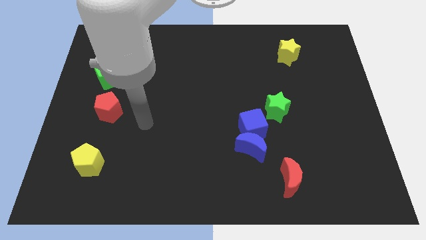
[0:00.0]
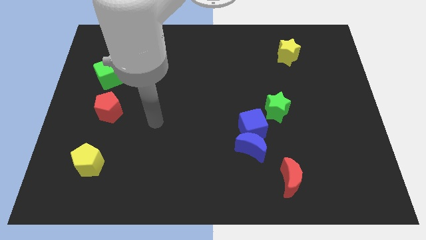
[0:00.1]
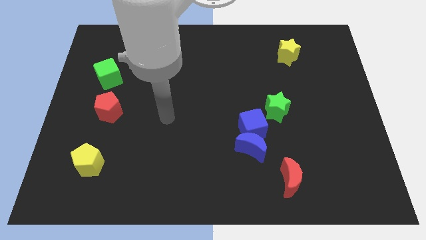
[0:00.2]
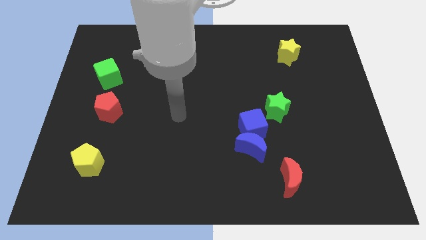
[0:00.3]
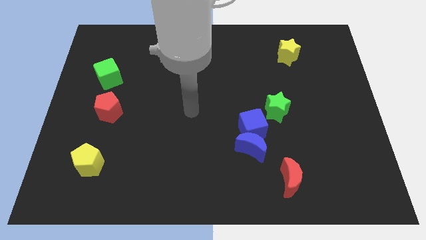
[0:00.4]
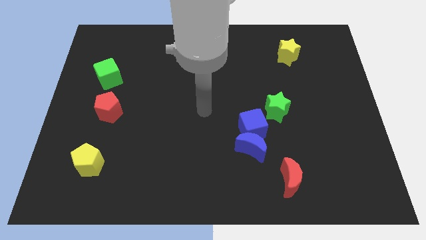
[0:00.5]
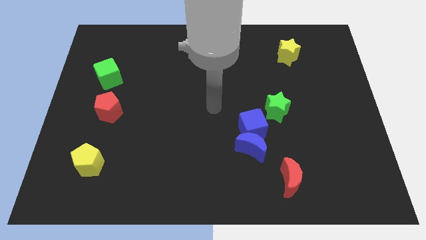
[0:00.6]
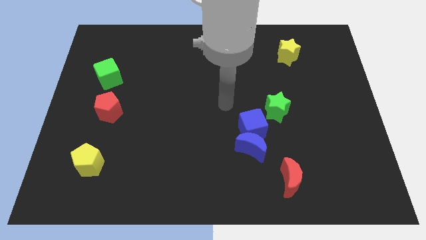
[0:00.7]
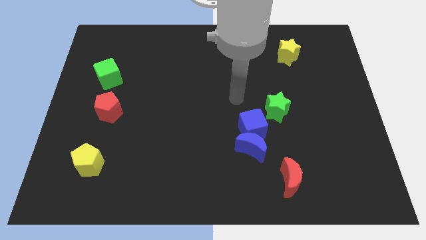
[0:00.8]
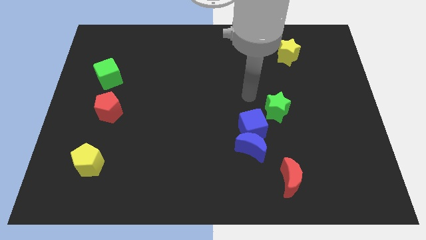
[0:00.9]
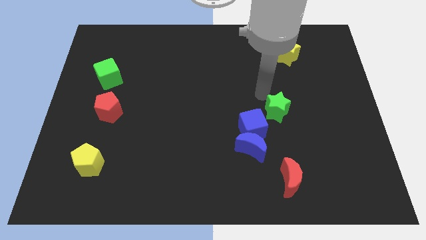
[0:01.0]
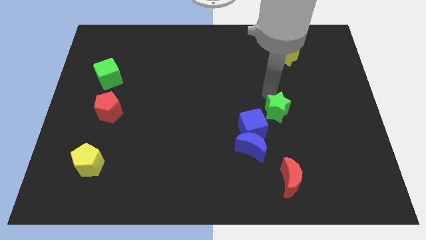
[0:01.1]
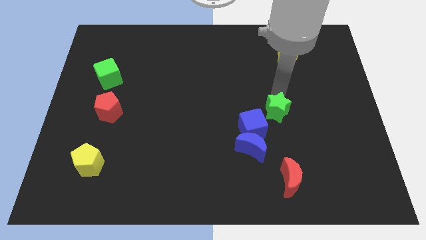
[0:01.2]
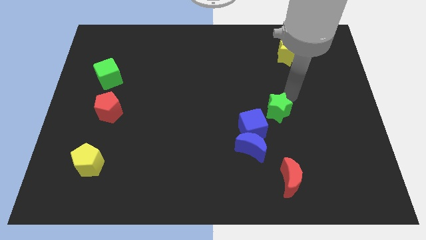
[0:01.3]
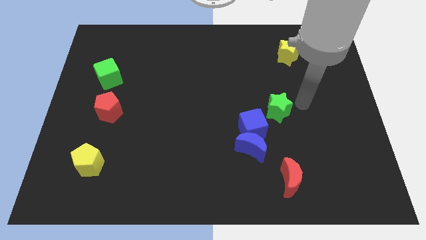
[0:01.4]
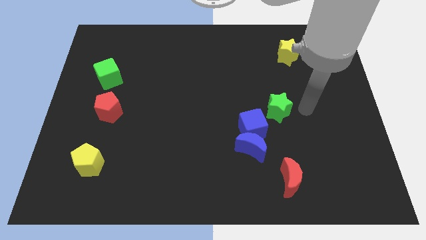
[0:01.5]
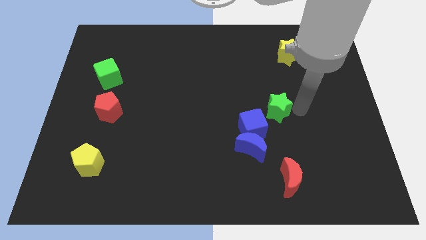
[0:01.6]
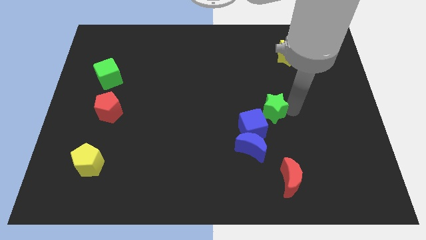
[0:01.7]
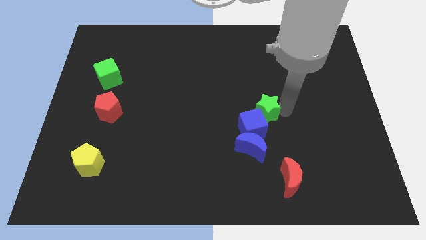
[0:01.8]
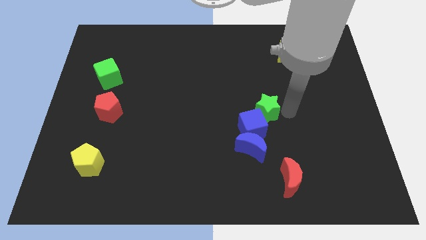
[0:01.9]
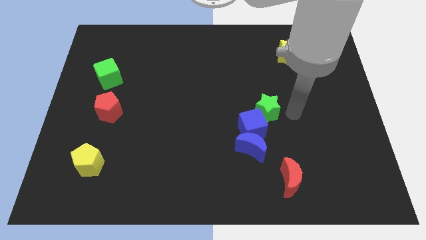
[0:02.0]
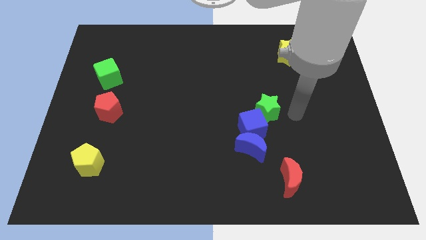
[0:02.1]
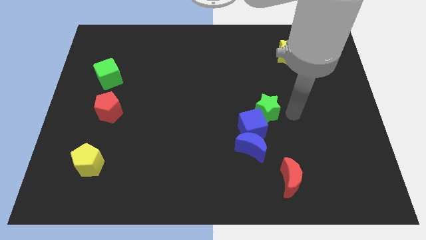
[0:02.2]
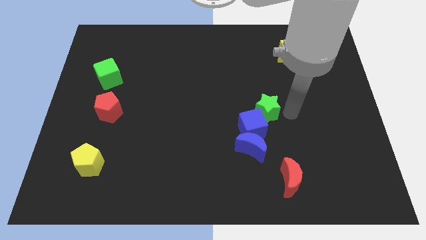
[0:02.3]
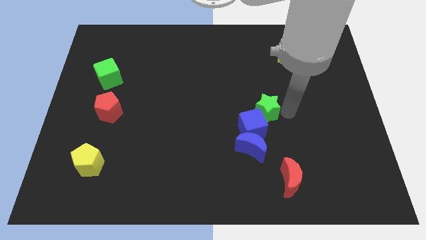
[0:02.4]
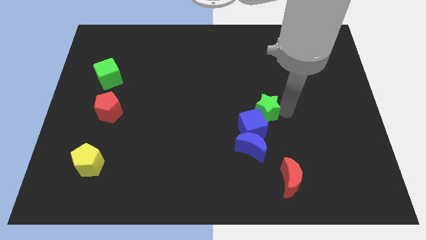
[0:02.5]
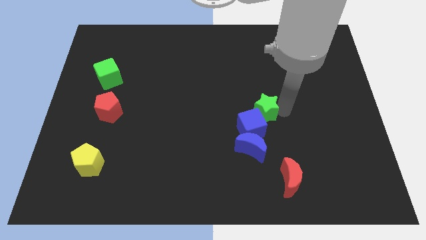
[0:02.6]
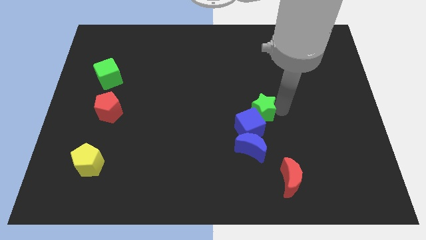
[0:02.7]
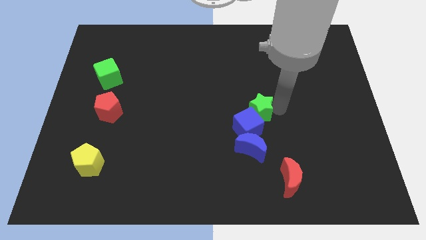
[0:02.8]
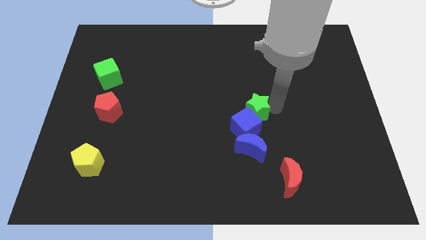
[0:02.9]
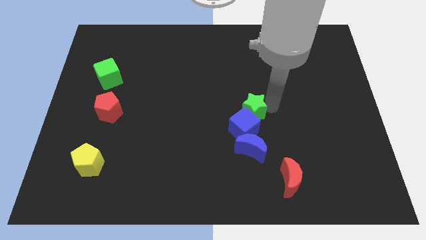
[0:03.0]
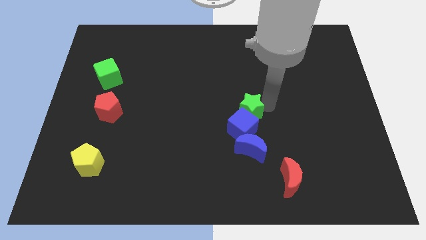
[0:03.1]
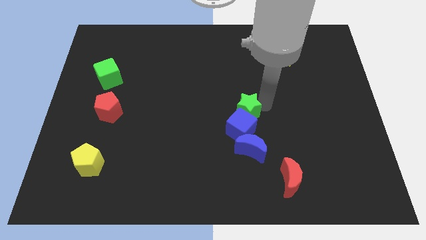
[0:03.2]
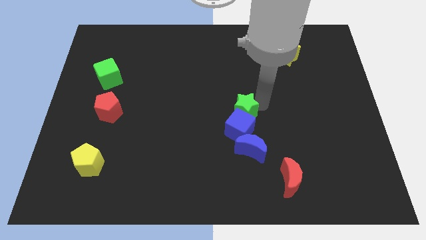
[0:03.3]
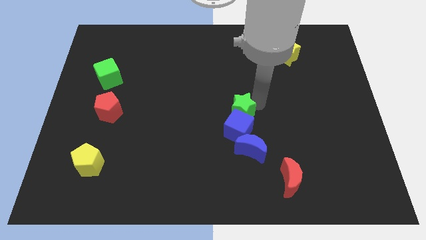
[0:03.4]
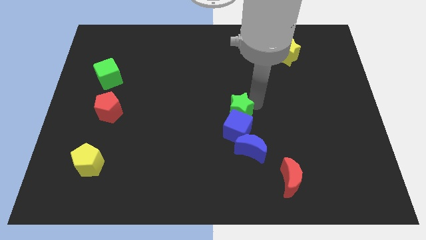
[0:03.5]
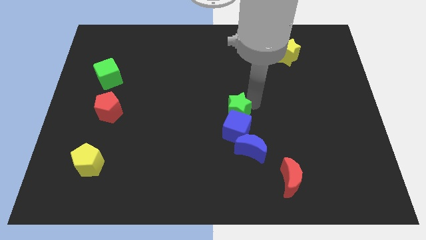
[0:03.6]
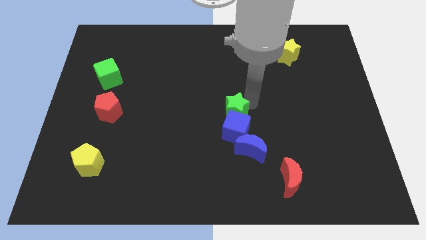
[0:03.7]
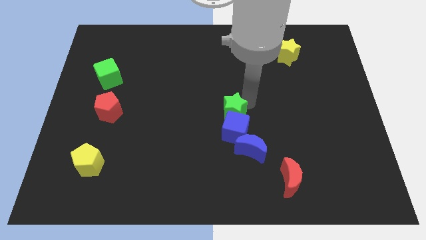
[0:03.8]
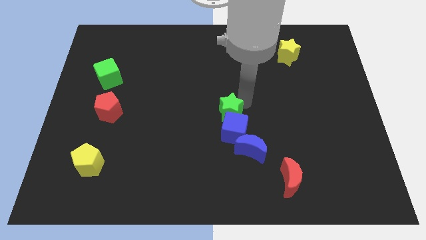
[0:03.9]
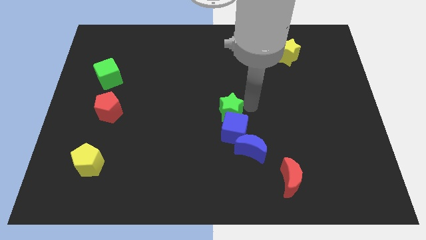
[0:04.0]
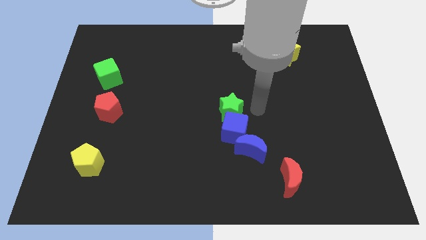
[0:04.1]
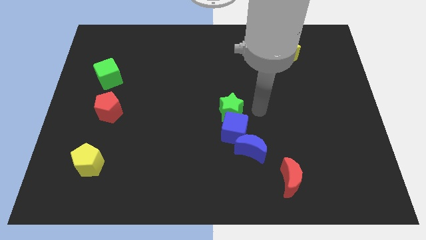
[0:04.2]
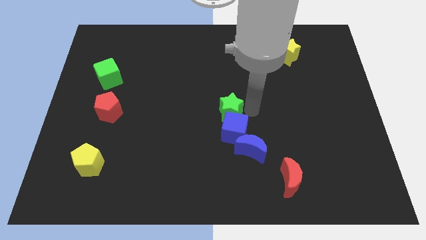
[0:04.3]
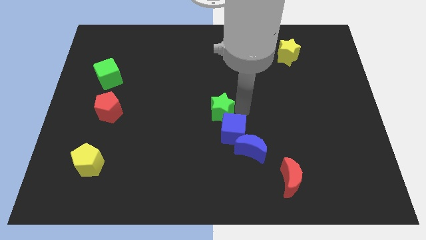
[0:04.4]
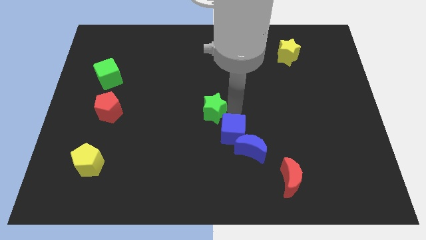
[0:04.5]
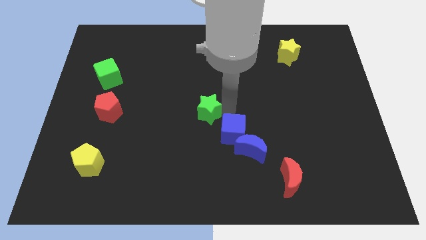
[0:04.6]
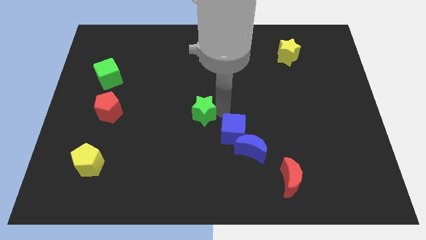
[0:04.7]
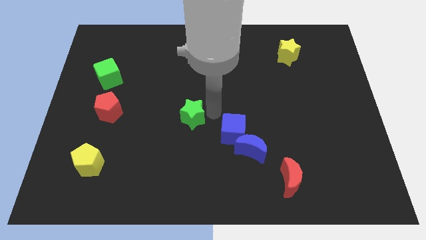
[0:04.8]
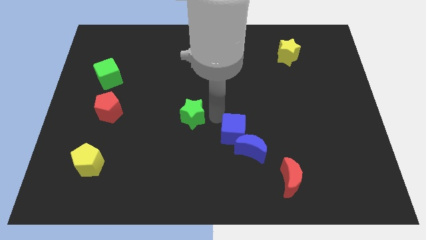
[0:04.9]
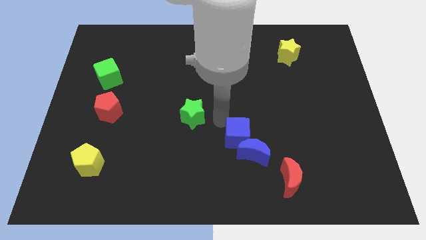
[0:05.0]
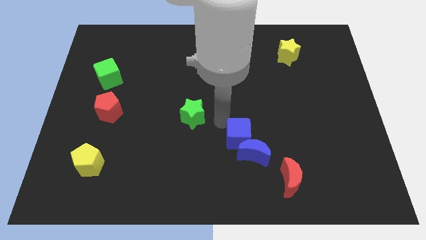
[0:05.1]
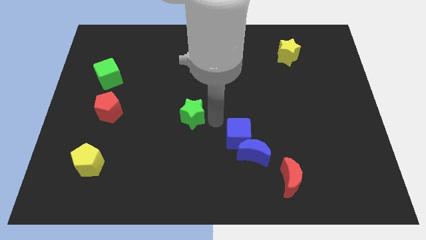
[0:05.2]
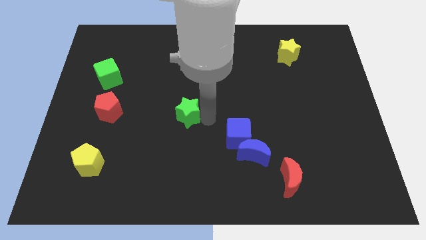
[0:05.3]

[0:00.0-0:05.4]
push the green star left

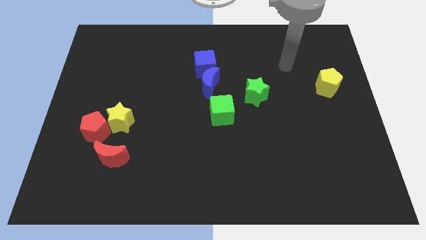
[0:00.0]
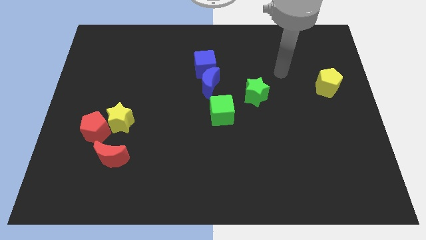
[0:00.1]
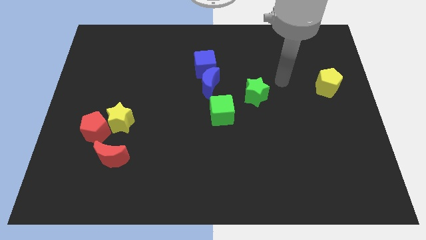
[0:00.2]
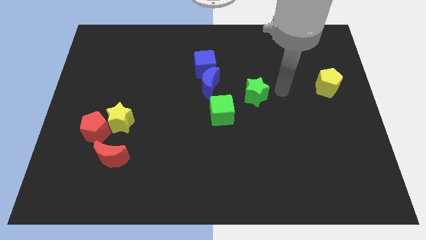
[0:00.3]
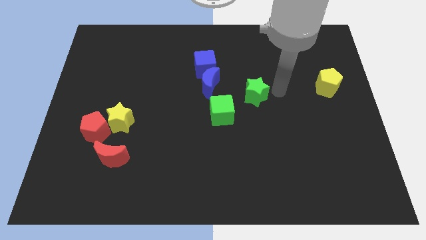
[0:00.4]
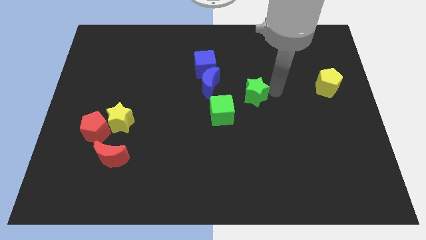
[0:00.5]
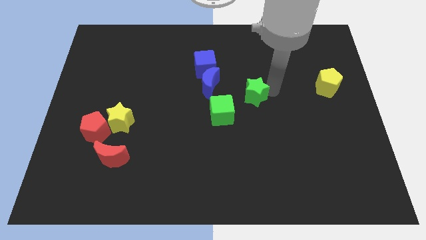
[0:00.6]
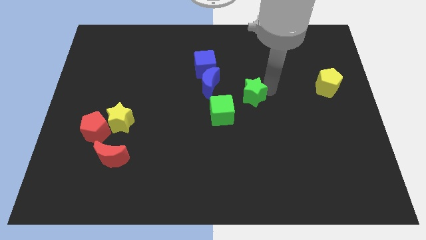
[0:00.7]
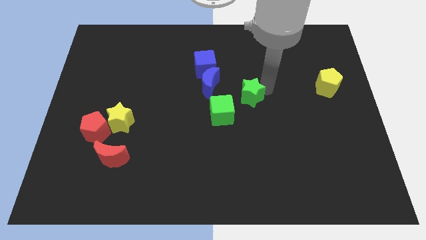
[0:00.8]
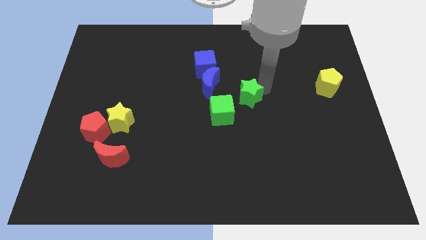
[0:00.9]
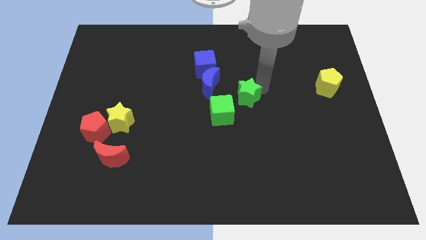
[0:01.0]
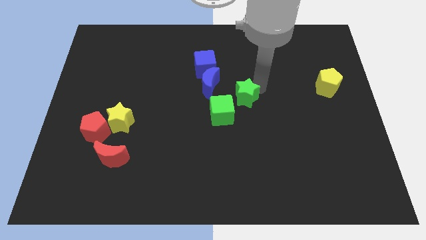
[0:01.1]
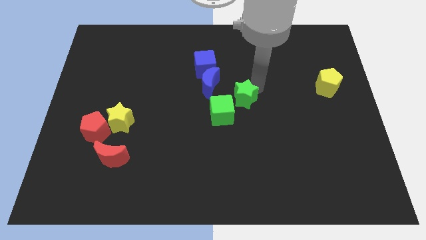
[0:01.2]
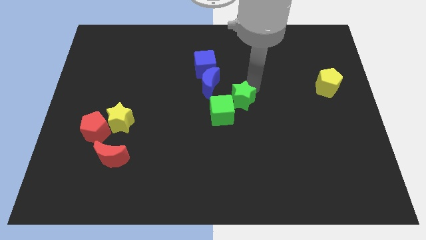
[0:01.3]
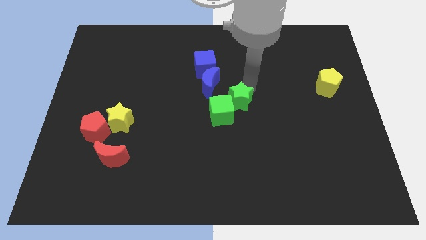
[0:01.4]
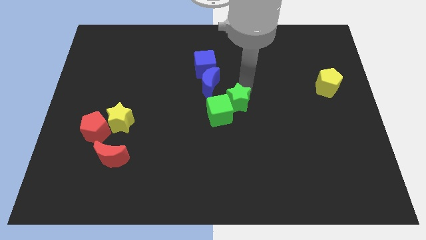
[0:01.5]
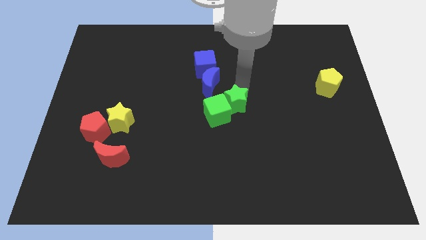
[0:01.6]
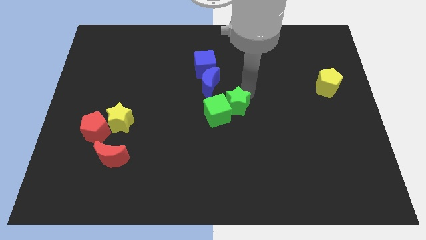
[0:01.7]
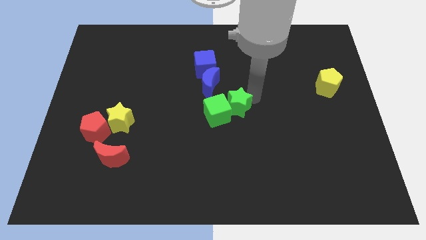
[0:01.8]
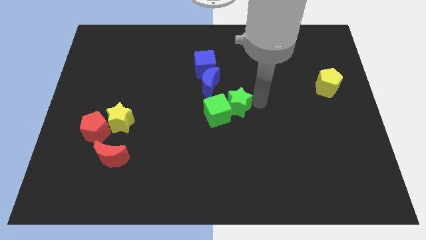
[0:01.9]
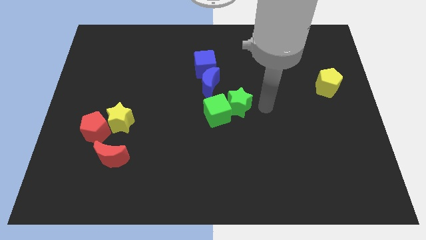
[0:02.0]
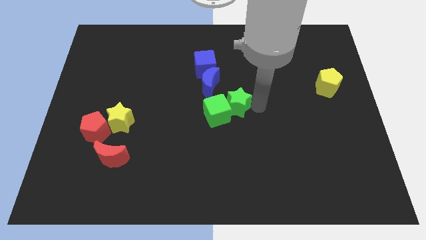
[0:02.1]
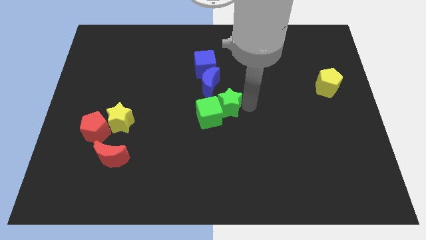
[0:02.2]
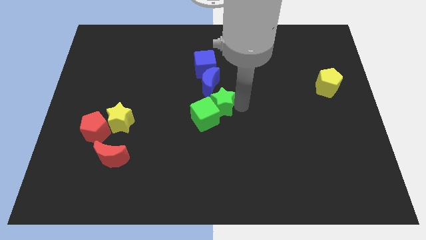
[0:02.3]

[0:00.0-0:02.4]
slide the green star somewhat left

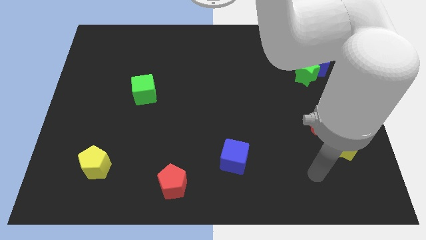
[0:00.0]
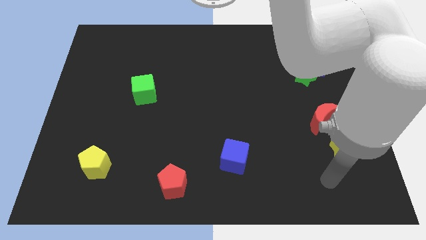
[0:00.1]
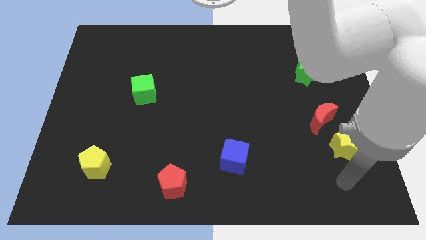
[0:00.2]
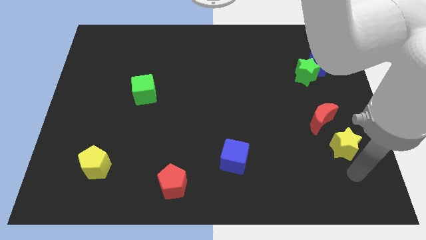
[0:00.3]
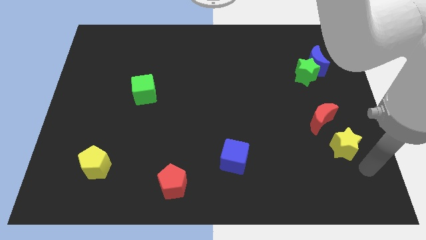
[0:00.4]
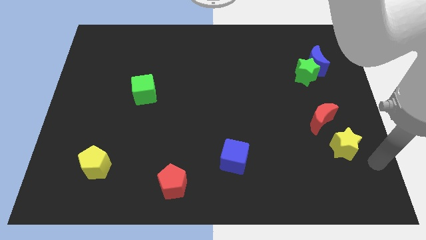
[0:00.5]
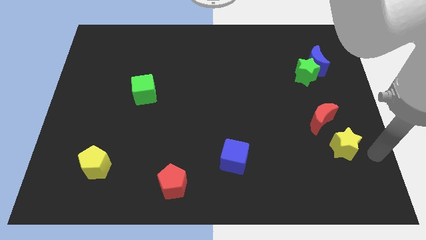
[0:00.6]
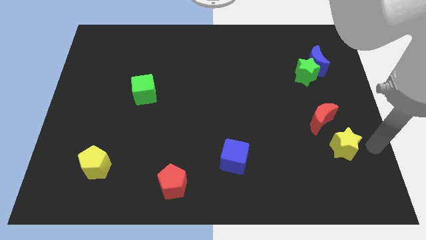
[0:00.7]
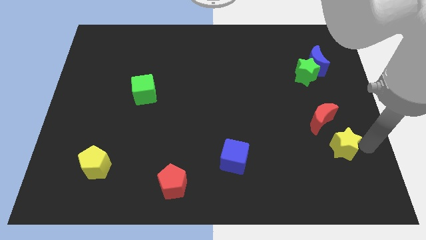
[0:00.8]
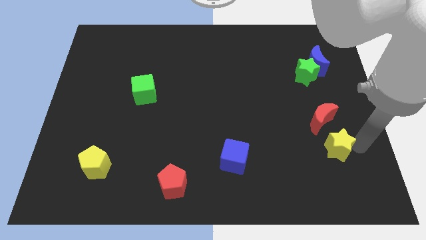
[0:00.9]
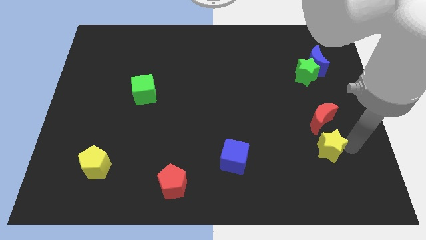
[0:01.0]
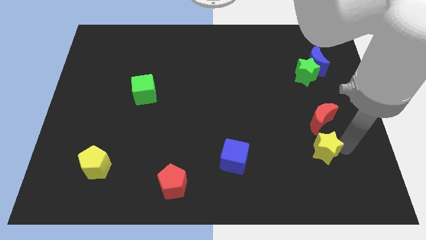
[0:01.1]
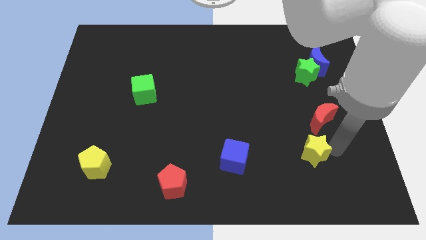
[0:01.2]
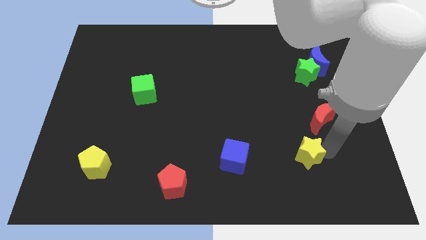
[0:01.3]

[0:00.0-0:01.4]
slightly slide the yellow star left
